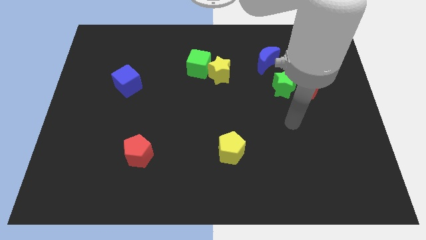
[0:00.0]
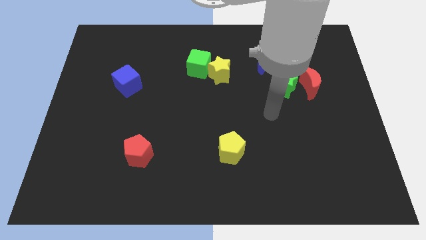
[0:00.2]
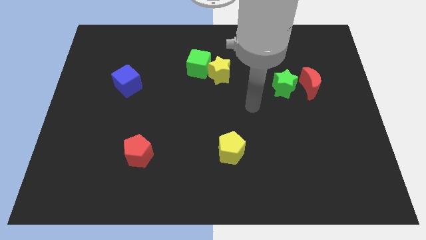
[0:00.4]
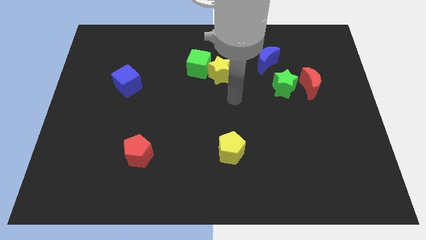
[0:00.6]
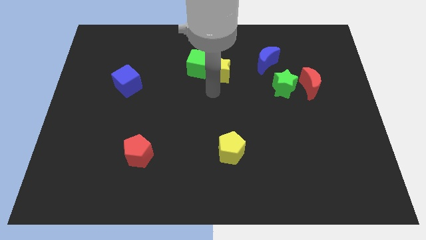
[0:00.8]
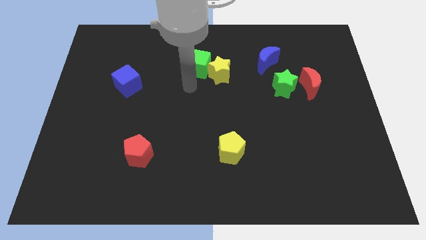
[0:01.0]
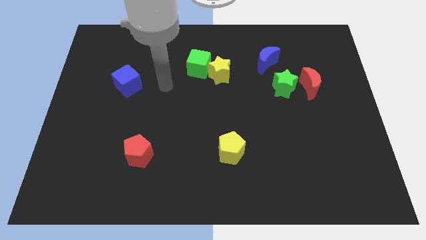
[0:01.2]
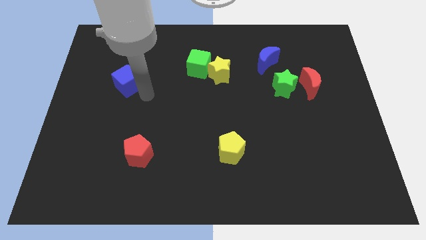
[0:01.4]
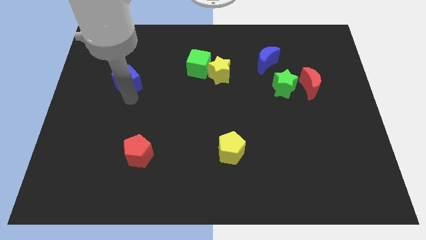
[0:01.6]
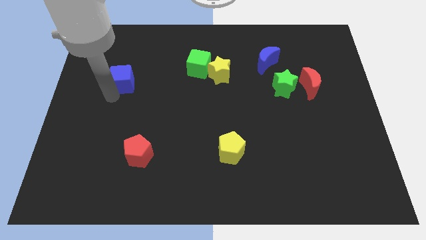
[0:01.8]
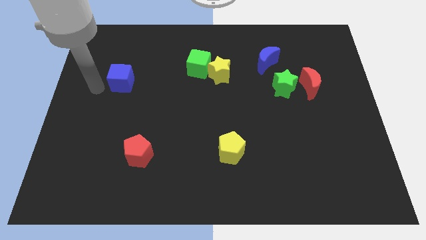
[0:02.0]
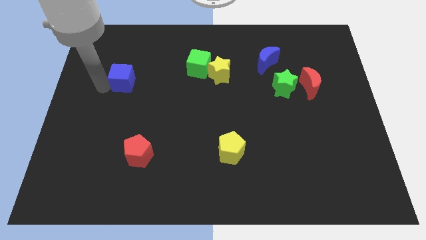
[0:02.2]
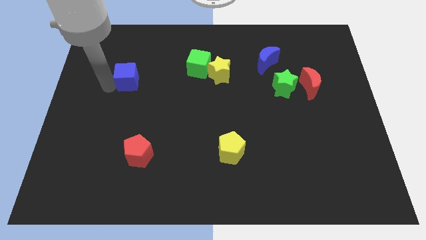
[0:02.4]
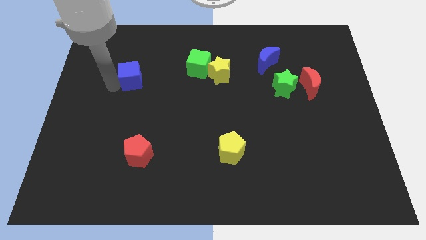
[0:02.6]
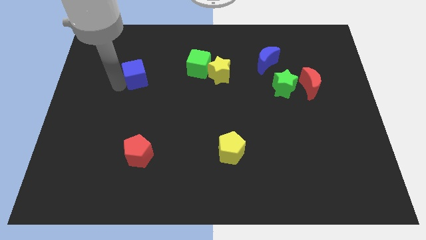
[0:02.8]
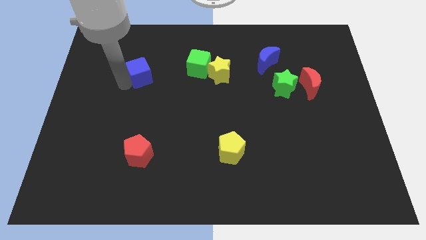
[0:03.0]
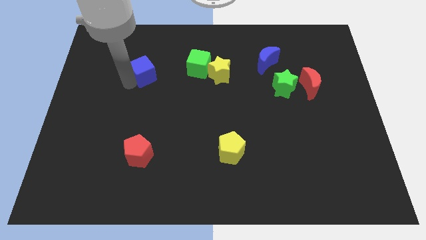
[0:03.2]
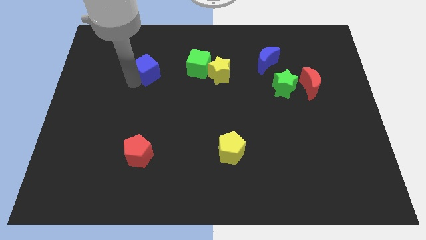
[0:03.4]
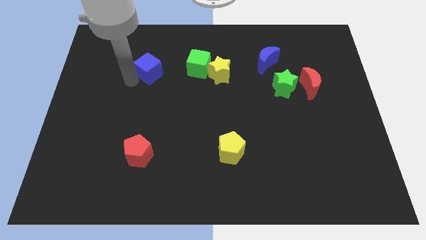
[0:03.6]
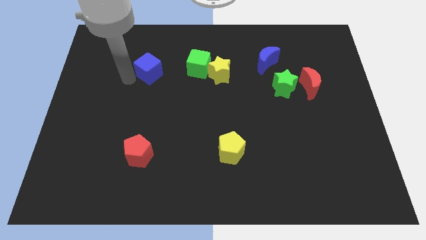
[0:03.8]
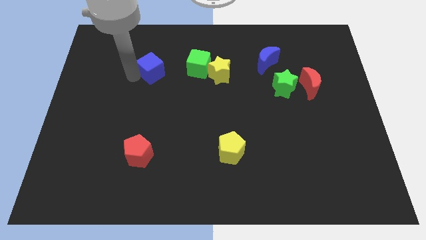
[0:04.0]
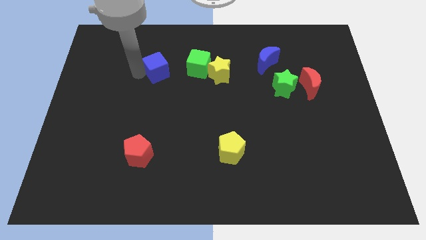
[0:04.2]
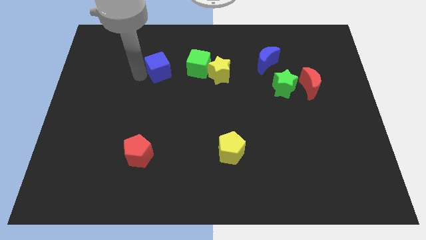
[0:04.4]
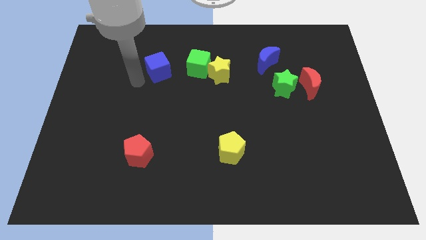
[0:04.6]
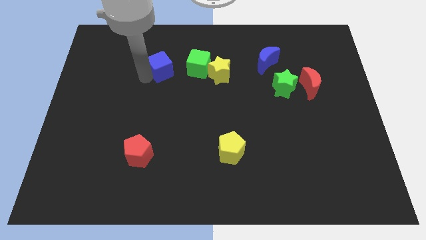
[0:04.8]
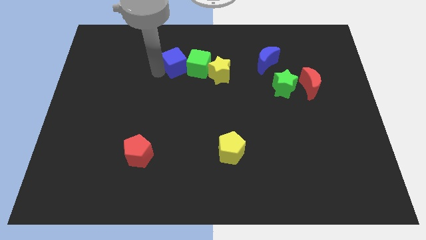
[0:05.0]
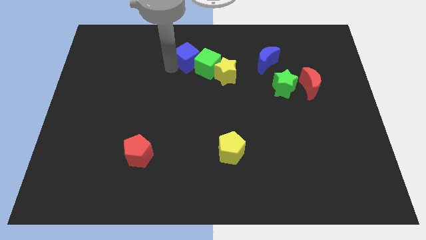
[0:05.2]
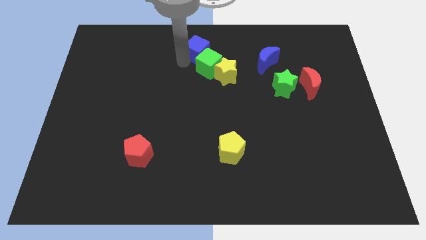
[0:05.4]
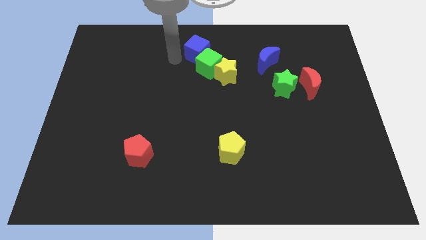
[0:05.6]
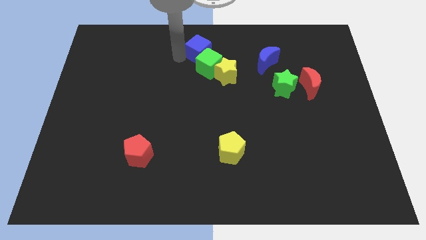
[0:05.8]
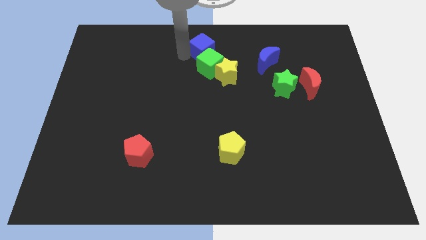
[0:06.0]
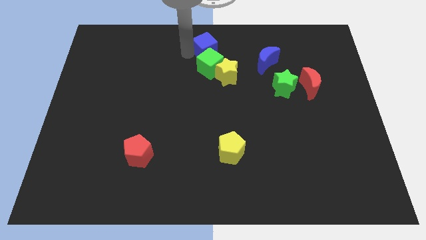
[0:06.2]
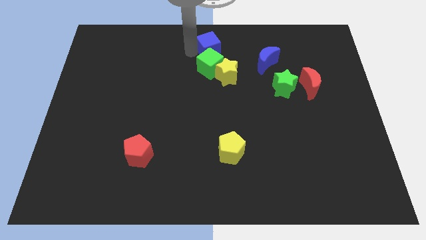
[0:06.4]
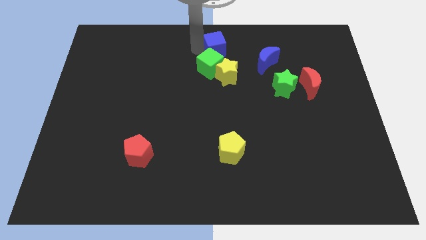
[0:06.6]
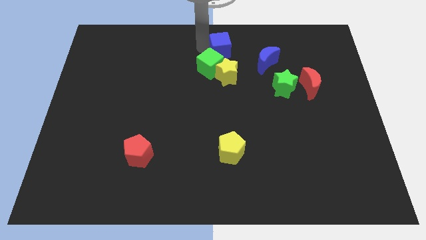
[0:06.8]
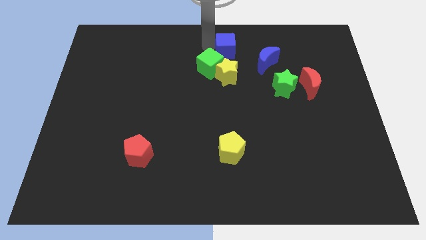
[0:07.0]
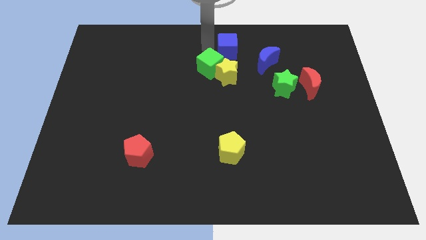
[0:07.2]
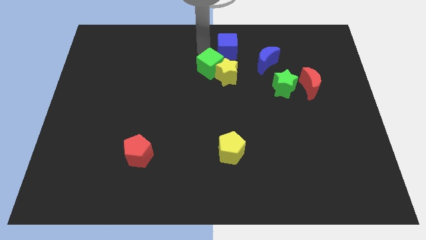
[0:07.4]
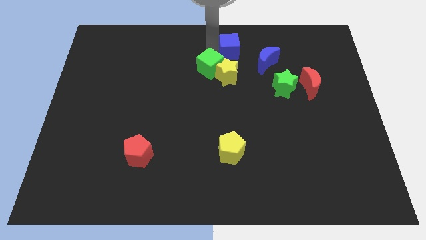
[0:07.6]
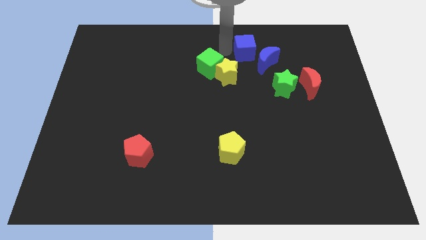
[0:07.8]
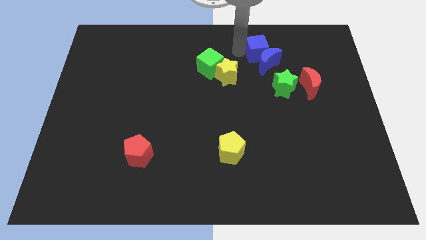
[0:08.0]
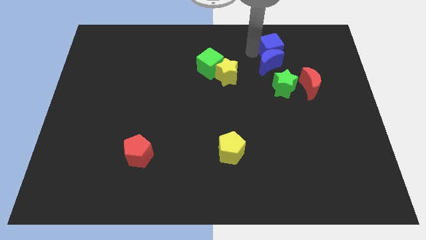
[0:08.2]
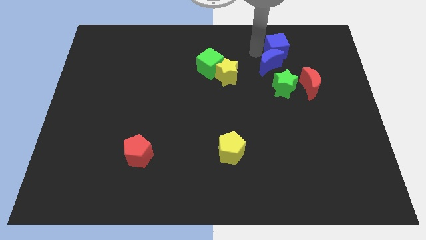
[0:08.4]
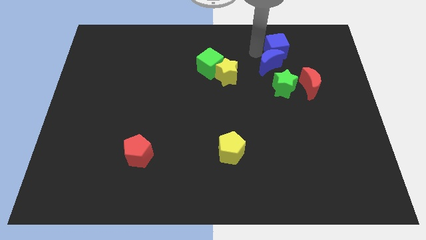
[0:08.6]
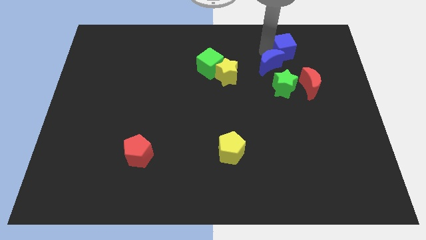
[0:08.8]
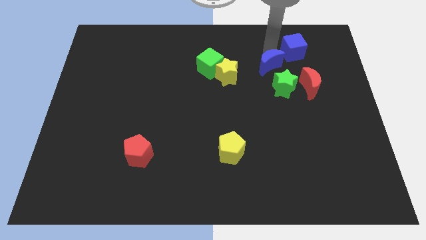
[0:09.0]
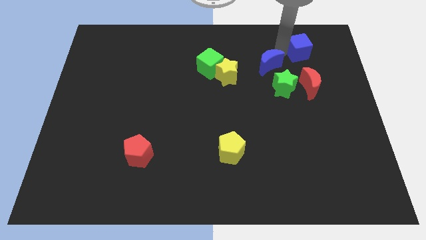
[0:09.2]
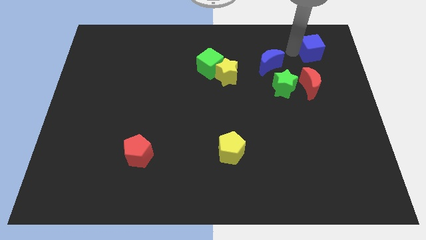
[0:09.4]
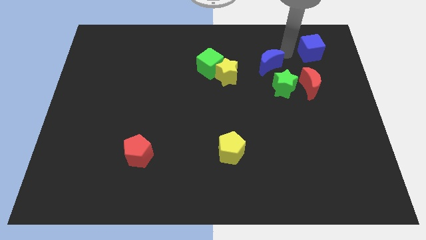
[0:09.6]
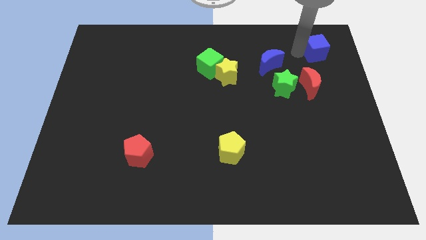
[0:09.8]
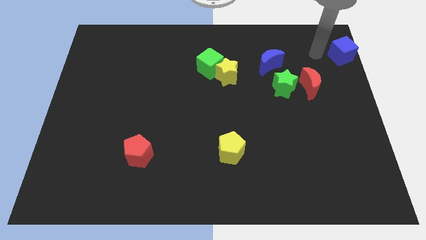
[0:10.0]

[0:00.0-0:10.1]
slide the blue cube to the top right of the board

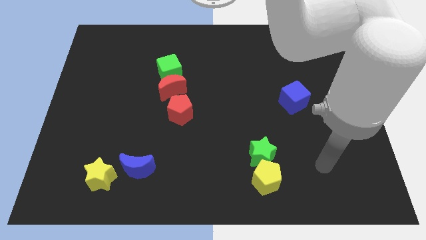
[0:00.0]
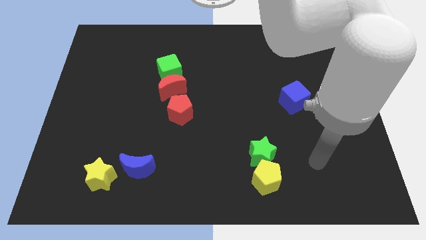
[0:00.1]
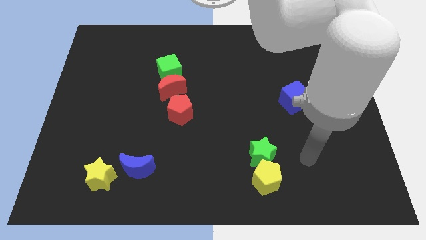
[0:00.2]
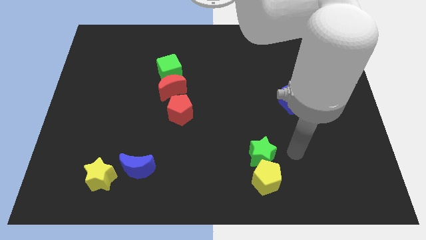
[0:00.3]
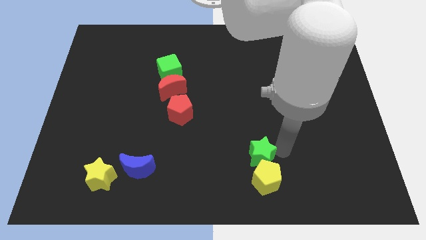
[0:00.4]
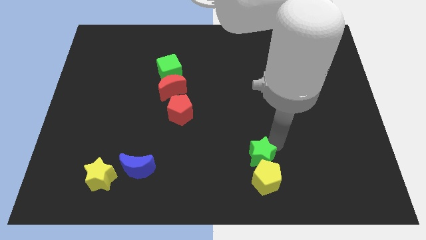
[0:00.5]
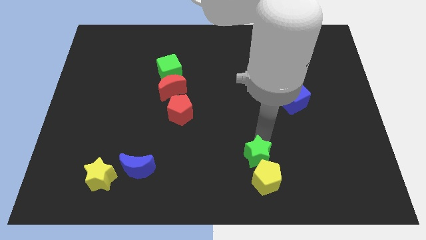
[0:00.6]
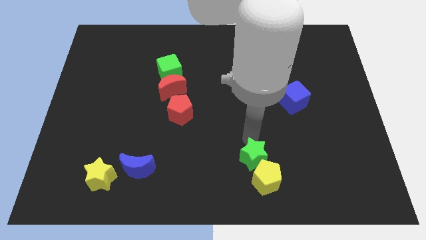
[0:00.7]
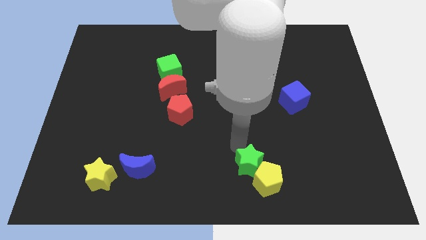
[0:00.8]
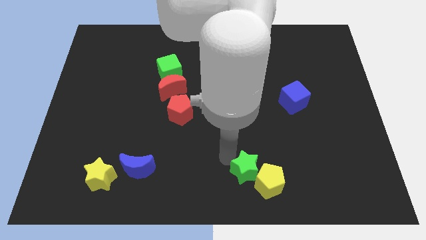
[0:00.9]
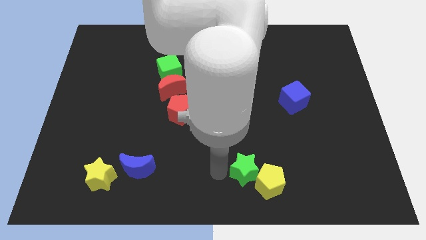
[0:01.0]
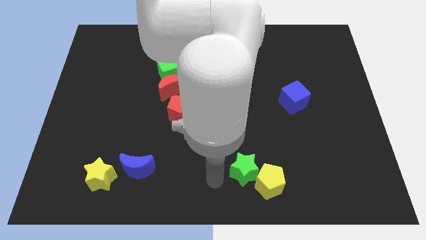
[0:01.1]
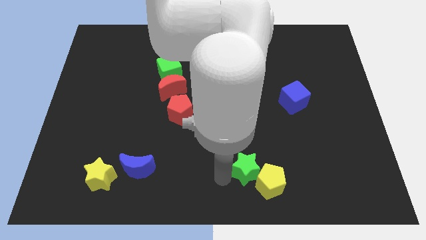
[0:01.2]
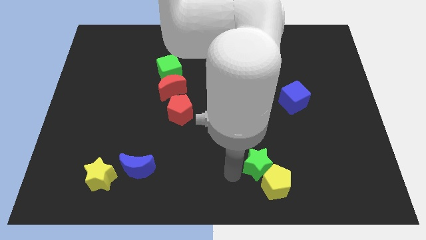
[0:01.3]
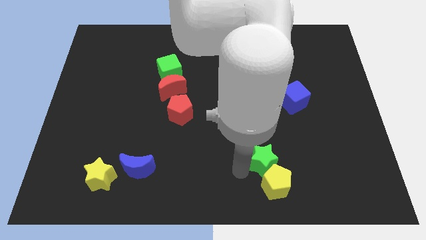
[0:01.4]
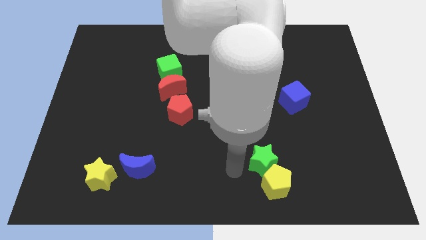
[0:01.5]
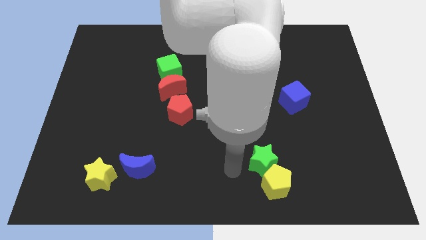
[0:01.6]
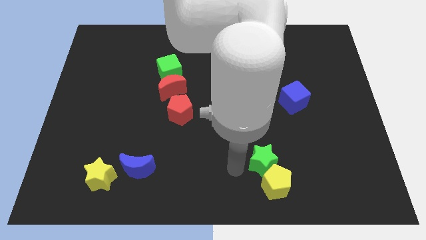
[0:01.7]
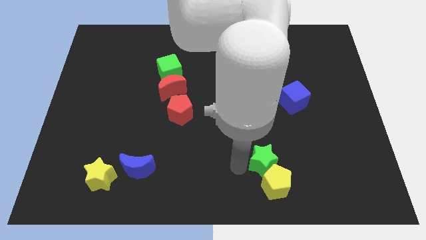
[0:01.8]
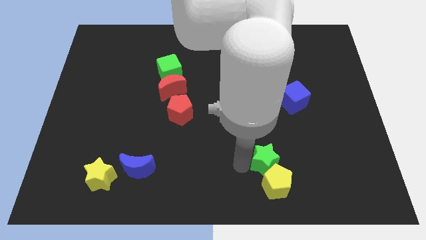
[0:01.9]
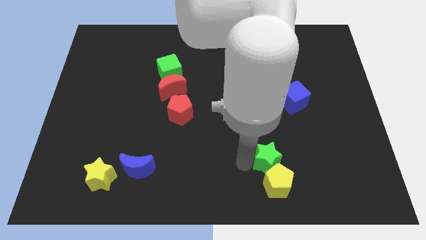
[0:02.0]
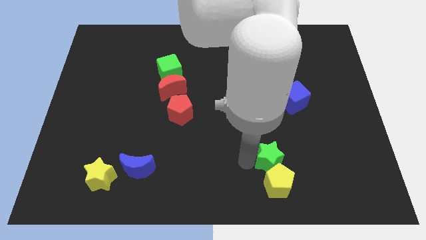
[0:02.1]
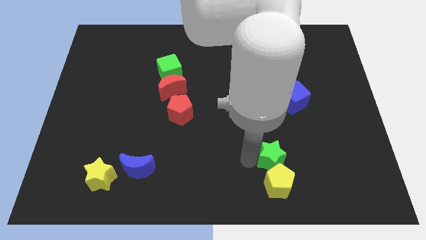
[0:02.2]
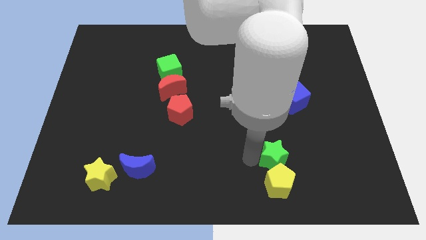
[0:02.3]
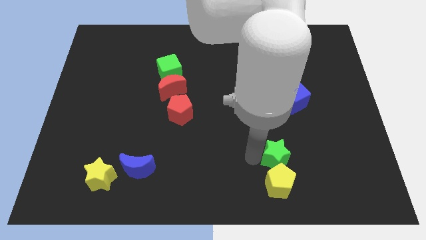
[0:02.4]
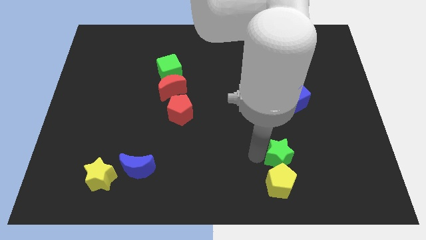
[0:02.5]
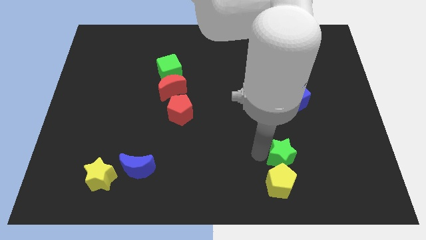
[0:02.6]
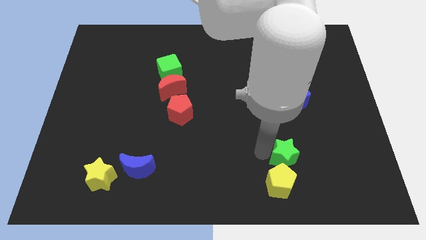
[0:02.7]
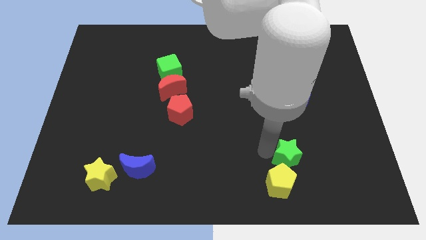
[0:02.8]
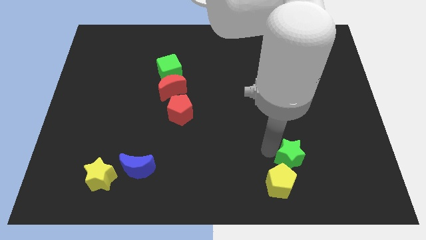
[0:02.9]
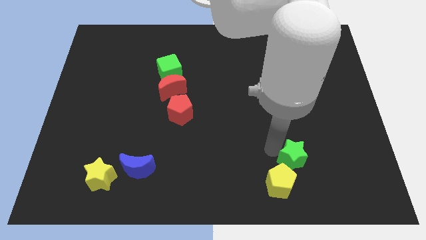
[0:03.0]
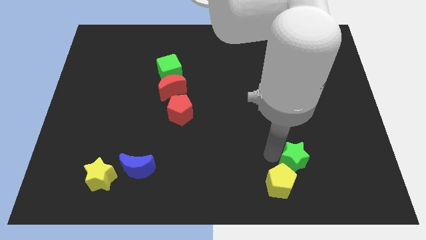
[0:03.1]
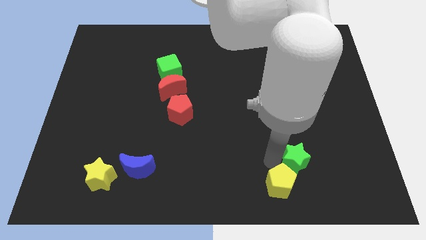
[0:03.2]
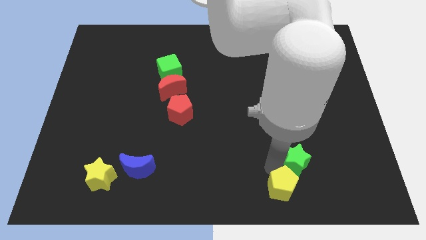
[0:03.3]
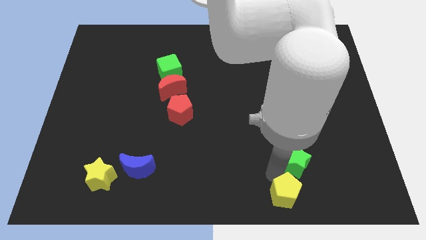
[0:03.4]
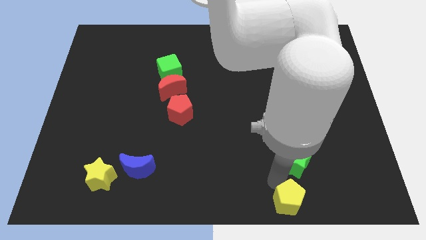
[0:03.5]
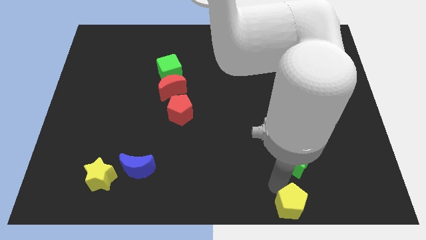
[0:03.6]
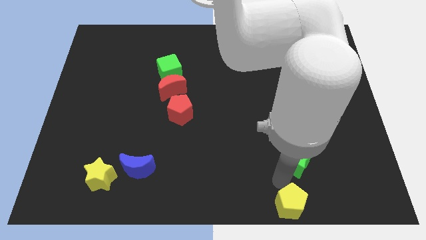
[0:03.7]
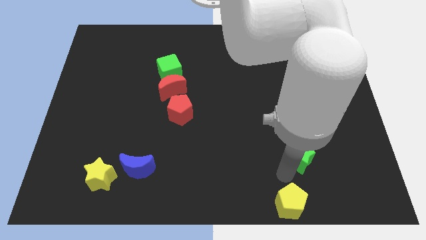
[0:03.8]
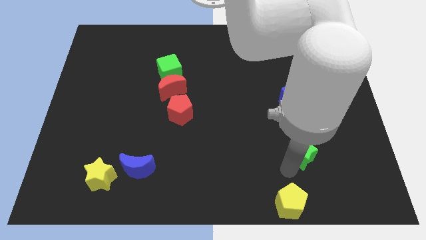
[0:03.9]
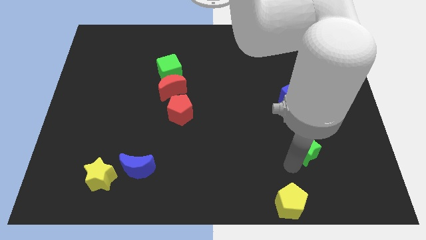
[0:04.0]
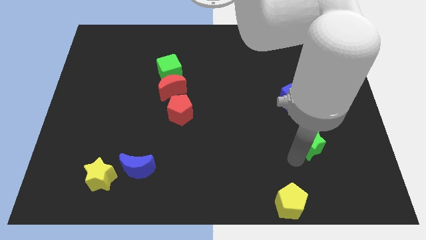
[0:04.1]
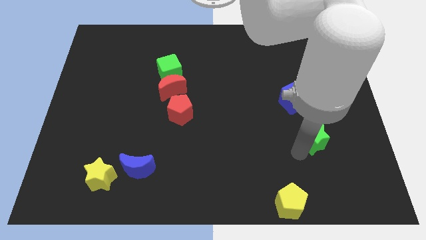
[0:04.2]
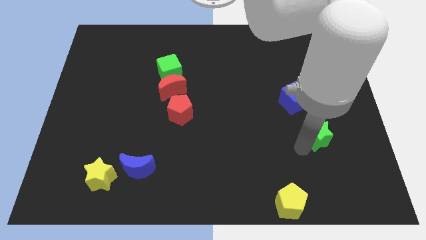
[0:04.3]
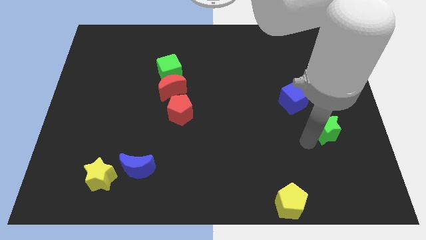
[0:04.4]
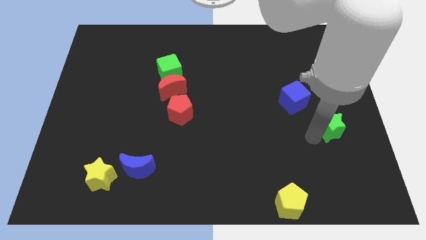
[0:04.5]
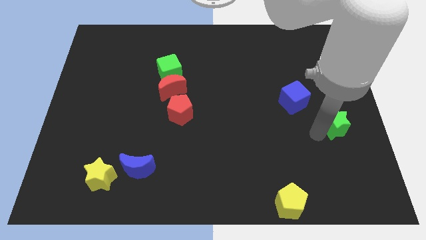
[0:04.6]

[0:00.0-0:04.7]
slide the green star to the center right
